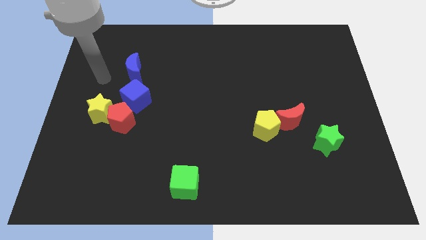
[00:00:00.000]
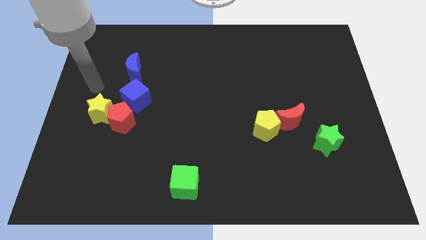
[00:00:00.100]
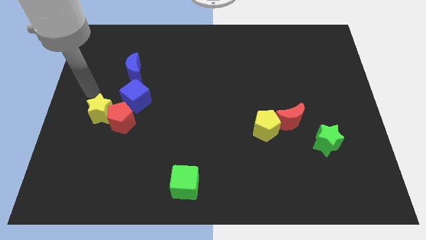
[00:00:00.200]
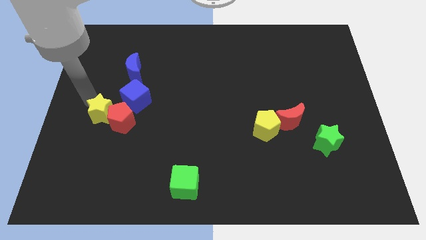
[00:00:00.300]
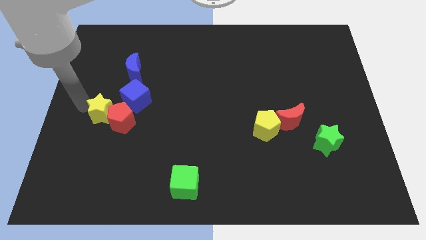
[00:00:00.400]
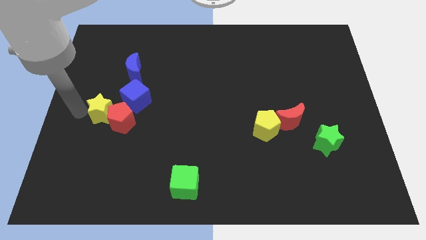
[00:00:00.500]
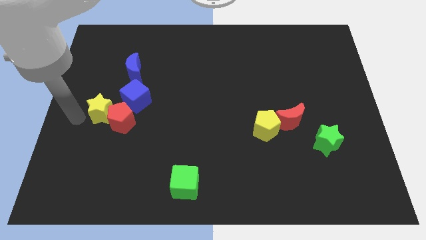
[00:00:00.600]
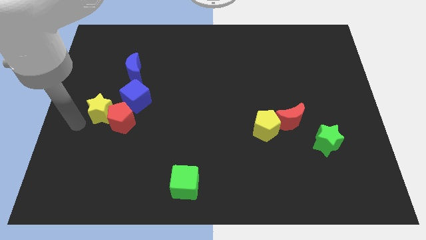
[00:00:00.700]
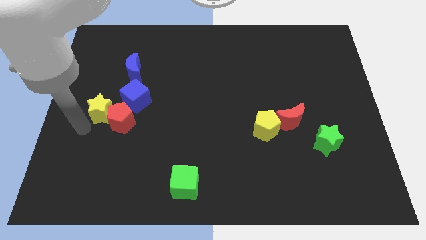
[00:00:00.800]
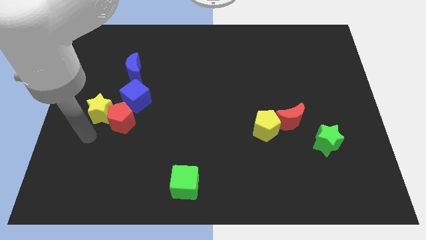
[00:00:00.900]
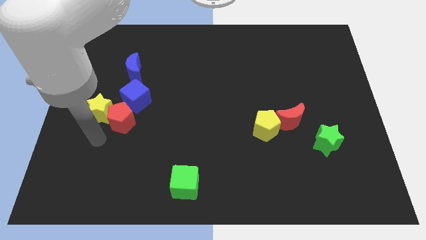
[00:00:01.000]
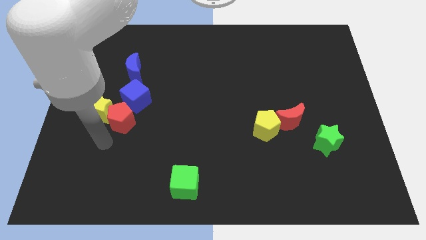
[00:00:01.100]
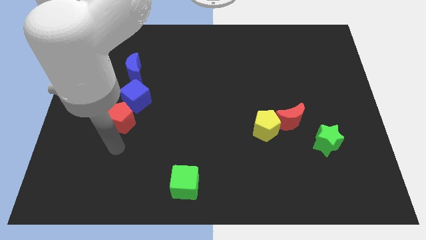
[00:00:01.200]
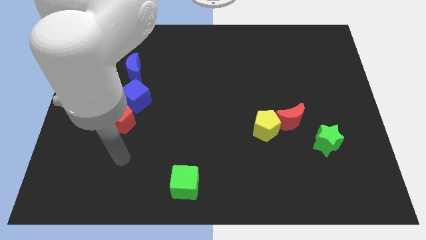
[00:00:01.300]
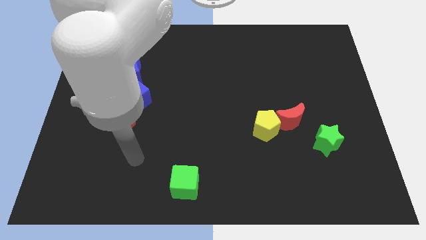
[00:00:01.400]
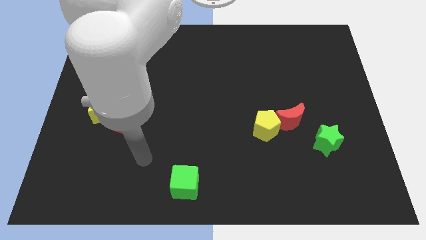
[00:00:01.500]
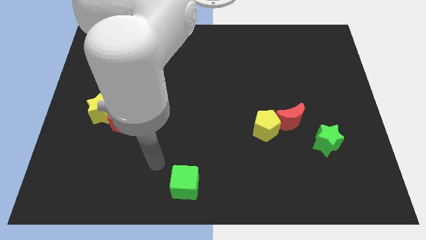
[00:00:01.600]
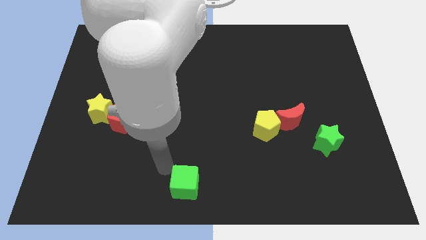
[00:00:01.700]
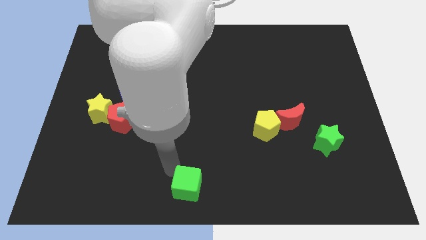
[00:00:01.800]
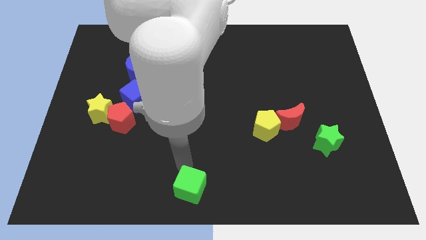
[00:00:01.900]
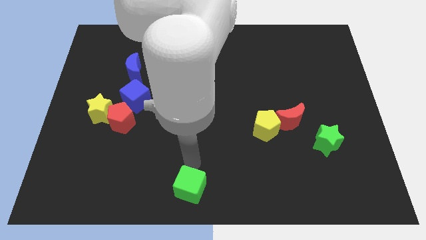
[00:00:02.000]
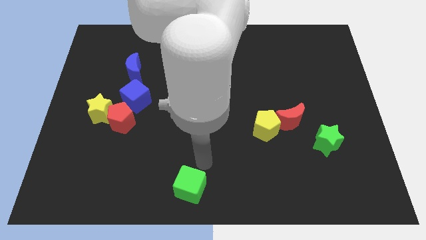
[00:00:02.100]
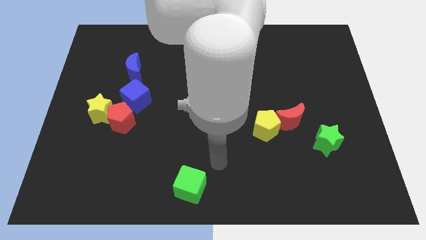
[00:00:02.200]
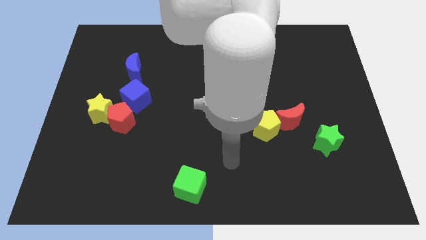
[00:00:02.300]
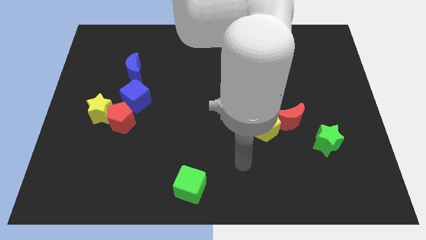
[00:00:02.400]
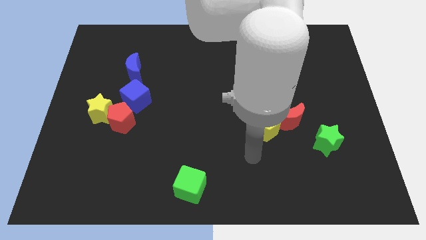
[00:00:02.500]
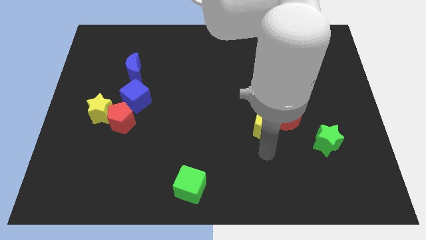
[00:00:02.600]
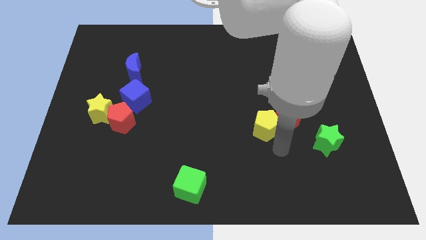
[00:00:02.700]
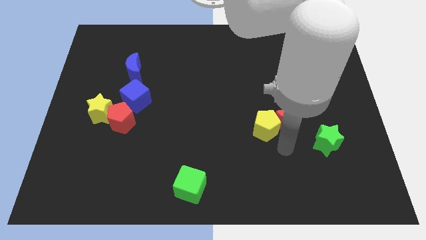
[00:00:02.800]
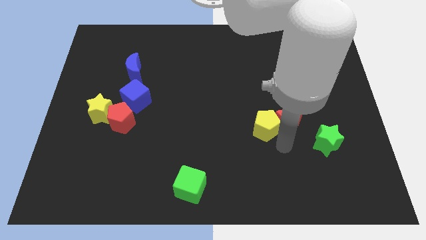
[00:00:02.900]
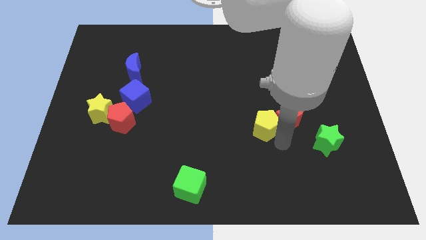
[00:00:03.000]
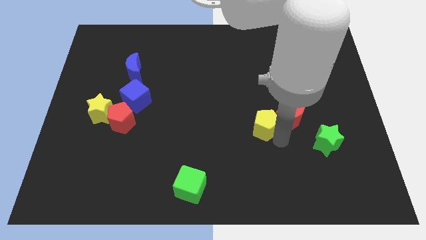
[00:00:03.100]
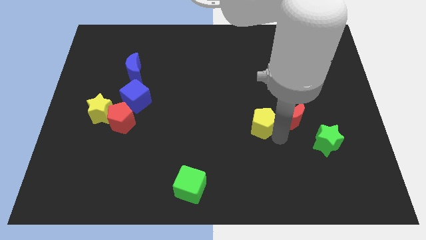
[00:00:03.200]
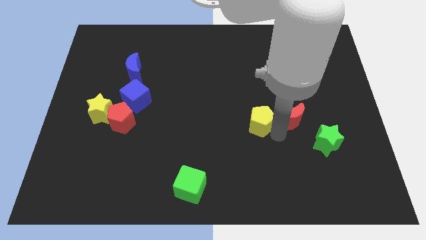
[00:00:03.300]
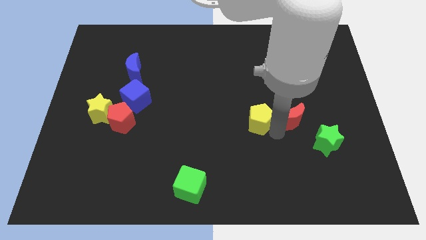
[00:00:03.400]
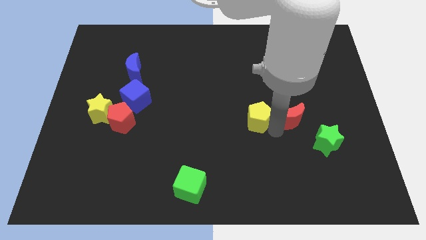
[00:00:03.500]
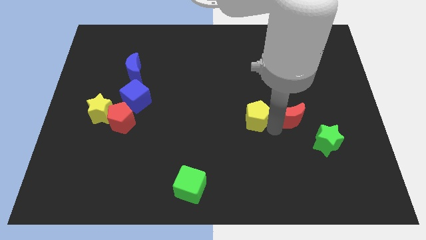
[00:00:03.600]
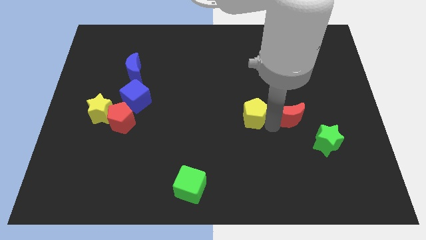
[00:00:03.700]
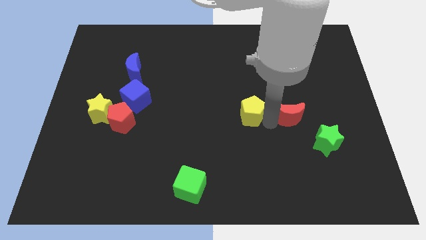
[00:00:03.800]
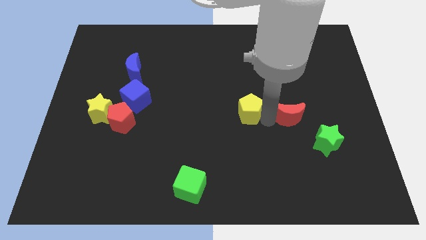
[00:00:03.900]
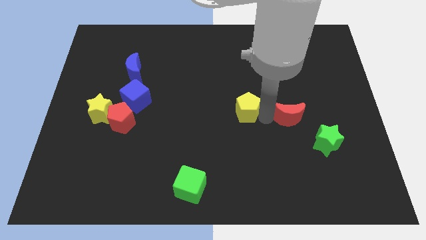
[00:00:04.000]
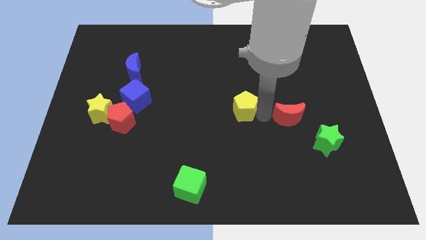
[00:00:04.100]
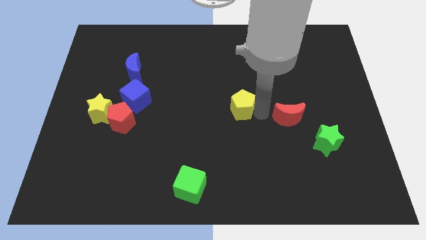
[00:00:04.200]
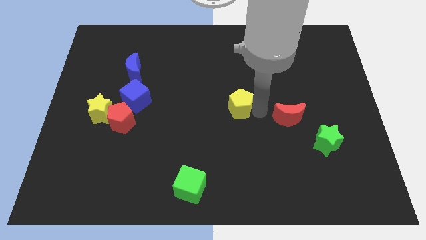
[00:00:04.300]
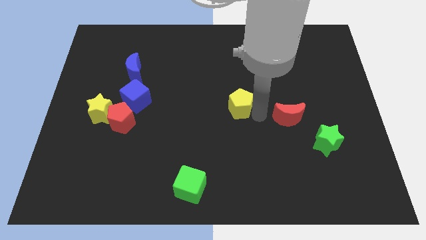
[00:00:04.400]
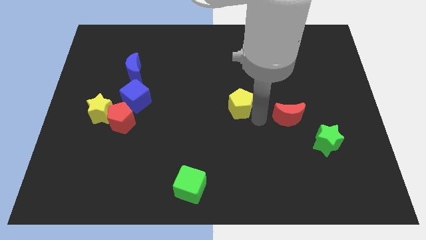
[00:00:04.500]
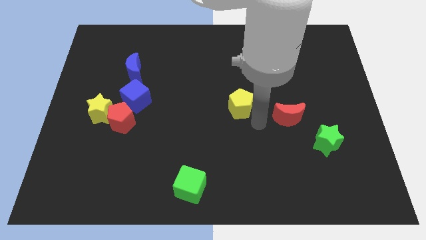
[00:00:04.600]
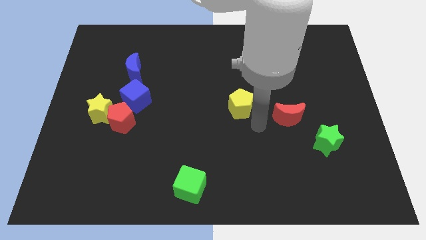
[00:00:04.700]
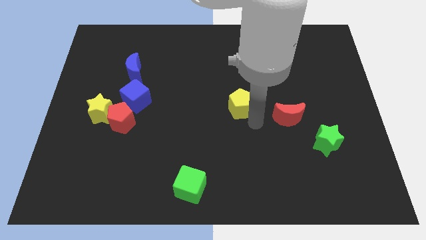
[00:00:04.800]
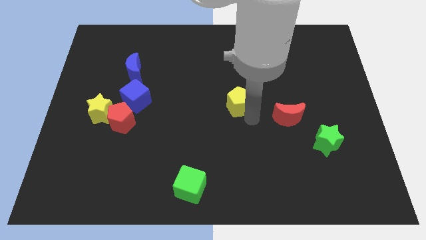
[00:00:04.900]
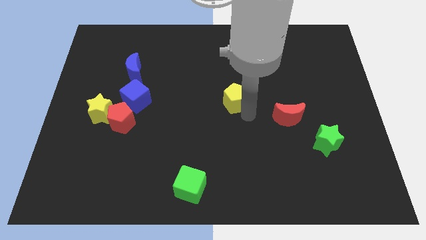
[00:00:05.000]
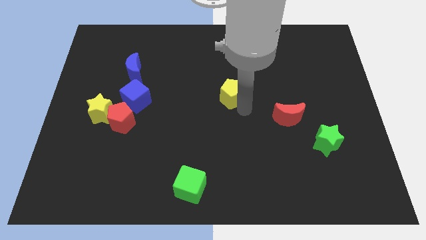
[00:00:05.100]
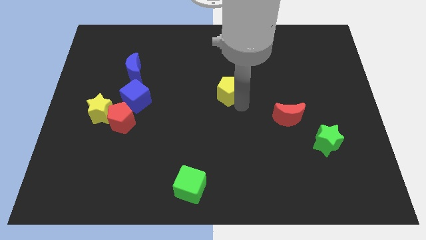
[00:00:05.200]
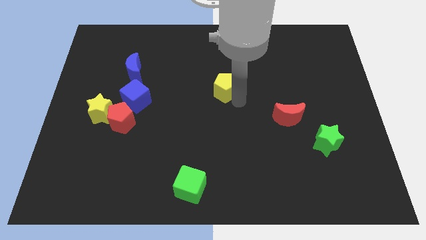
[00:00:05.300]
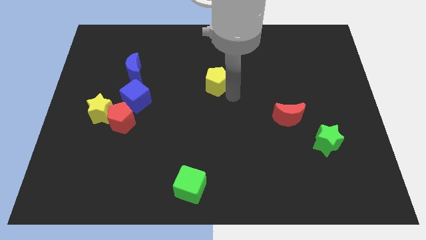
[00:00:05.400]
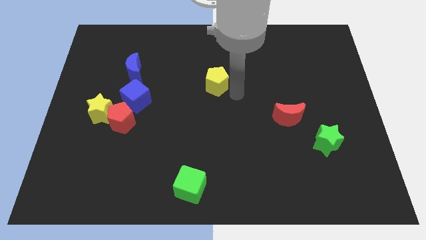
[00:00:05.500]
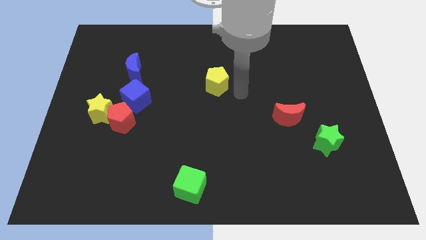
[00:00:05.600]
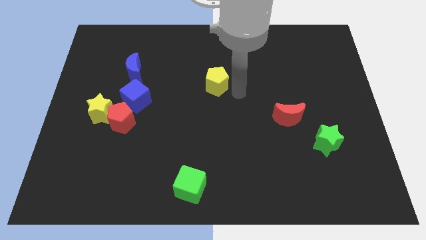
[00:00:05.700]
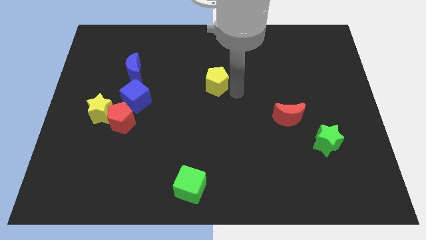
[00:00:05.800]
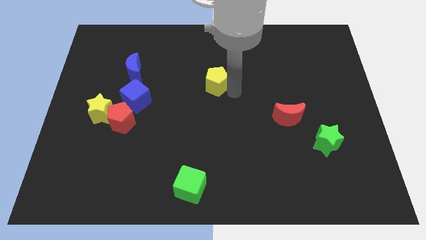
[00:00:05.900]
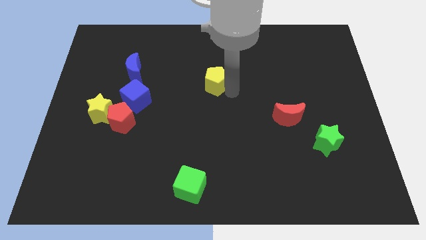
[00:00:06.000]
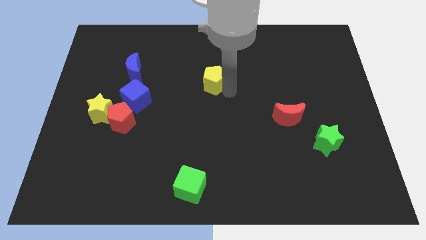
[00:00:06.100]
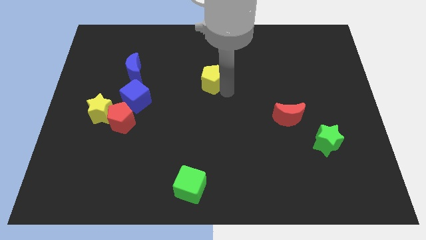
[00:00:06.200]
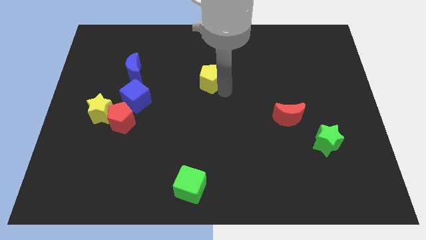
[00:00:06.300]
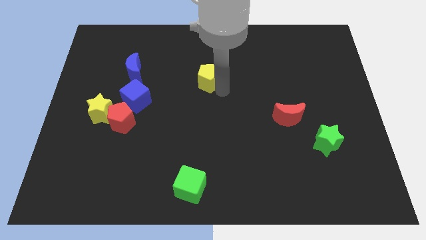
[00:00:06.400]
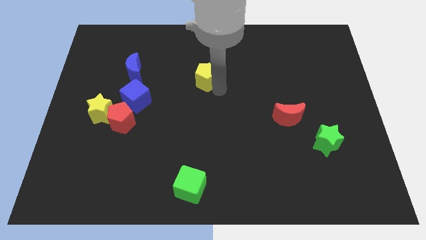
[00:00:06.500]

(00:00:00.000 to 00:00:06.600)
move the yellow pentagon up and then to the left

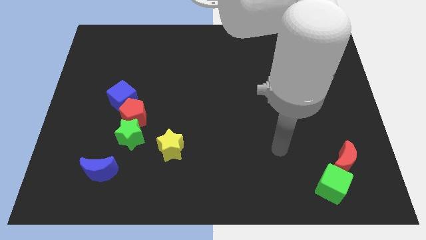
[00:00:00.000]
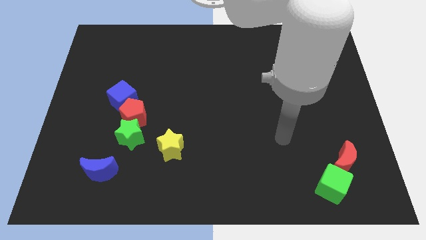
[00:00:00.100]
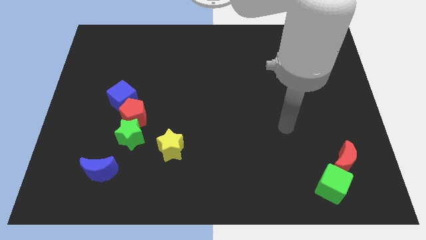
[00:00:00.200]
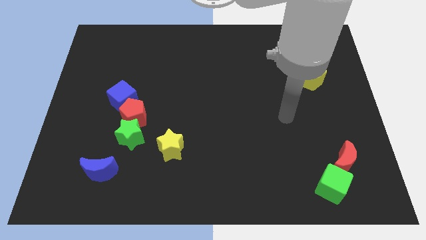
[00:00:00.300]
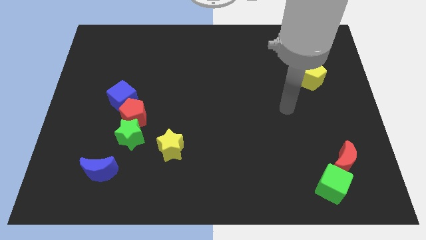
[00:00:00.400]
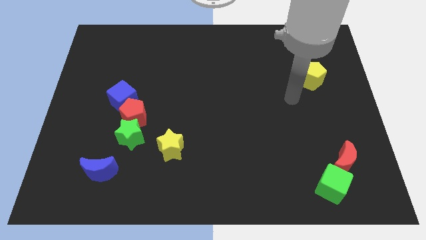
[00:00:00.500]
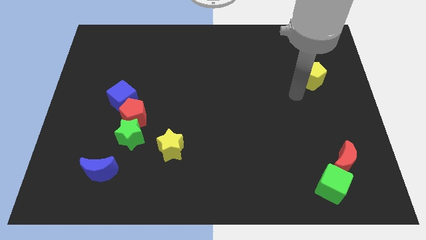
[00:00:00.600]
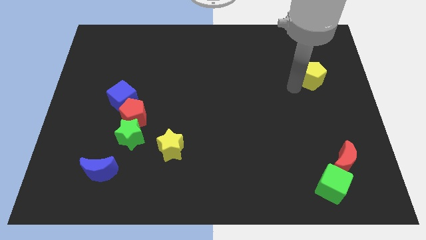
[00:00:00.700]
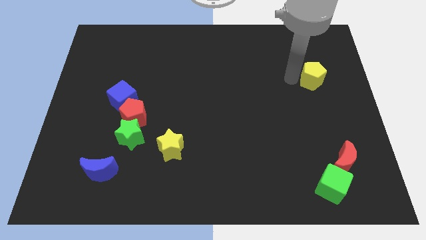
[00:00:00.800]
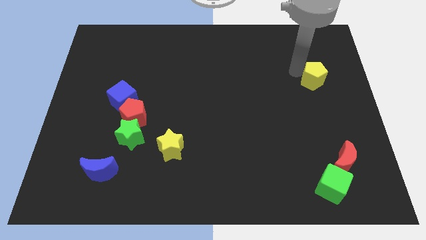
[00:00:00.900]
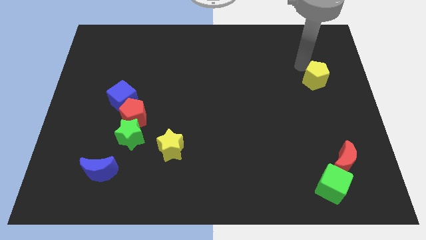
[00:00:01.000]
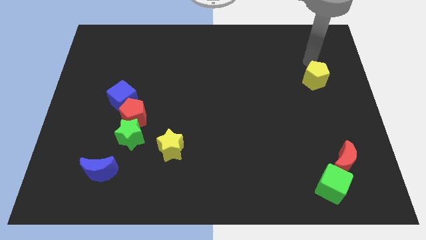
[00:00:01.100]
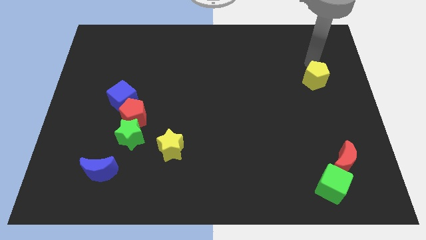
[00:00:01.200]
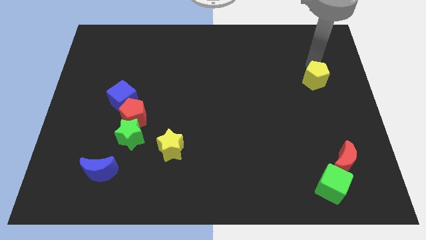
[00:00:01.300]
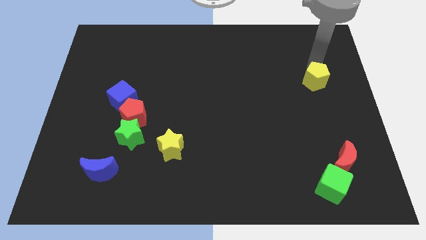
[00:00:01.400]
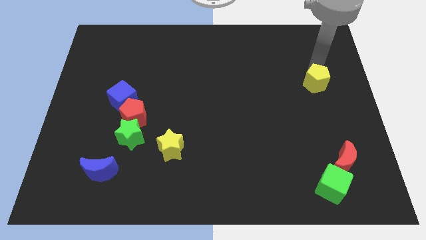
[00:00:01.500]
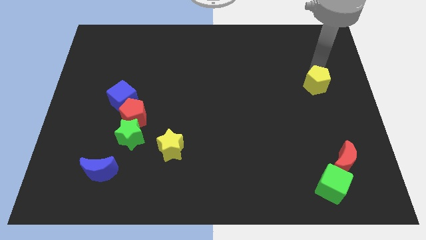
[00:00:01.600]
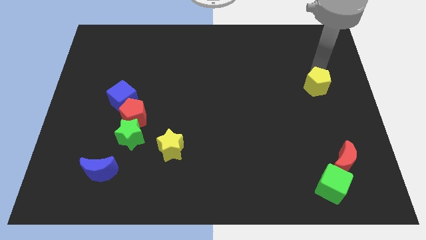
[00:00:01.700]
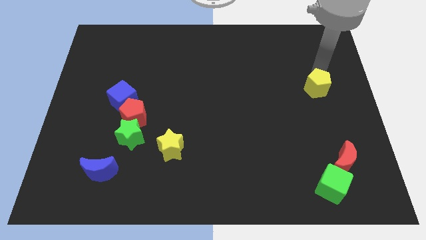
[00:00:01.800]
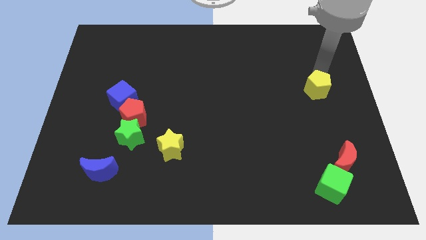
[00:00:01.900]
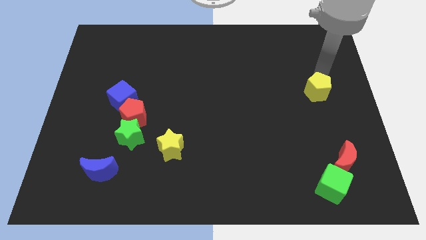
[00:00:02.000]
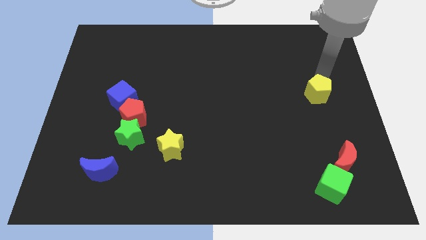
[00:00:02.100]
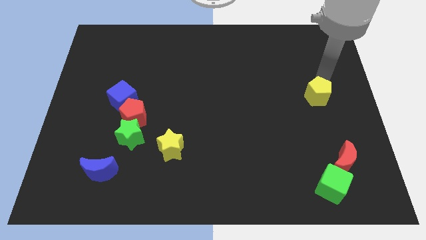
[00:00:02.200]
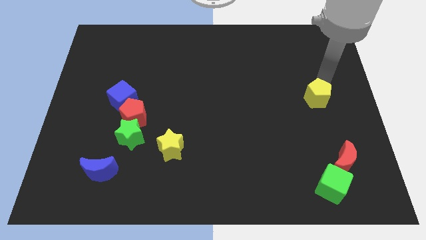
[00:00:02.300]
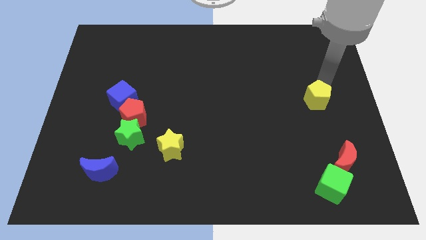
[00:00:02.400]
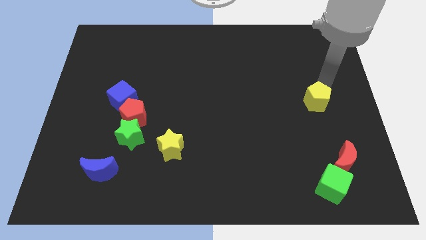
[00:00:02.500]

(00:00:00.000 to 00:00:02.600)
push the yellow pentagon downwards a bit
